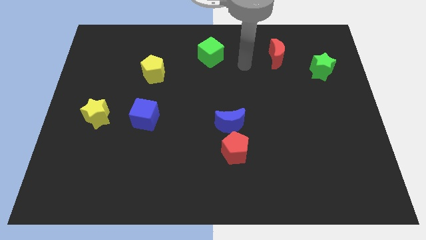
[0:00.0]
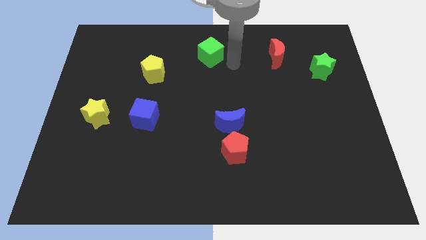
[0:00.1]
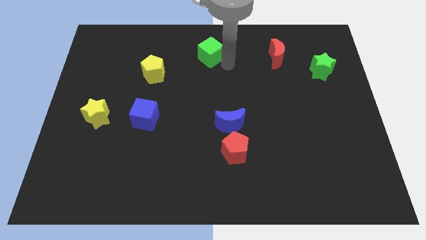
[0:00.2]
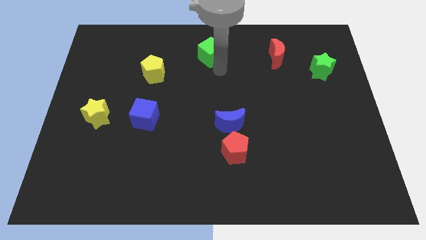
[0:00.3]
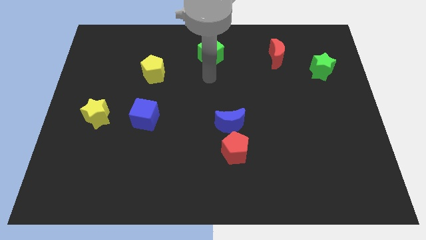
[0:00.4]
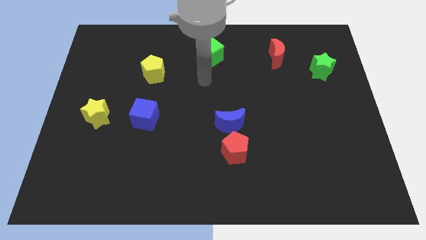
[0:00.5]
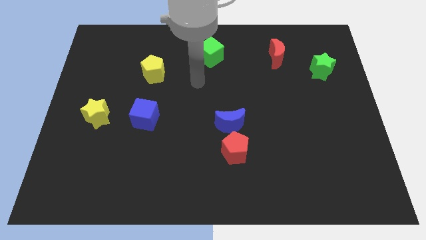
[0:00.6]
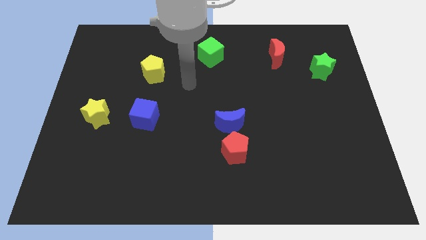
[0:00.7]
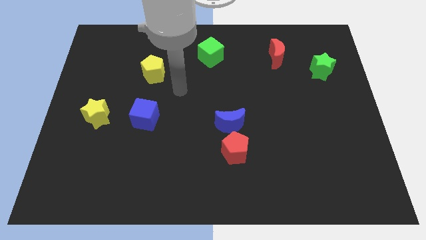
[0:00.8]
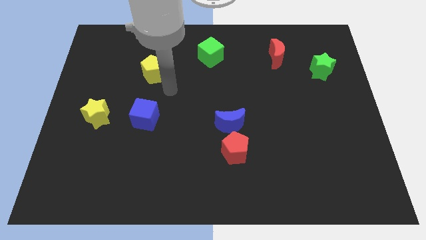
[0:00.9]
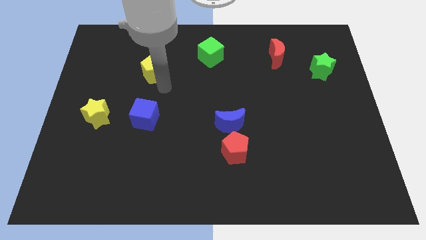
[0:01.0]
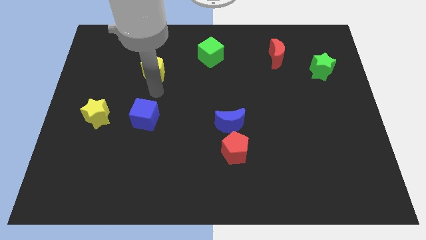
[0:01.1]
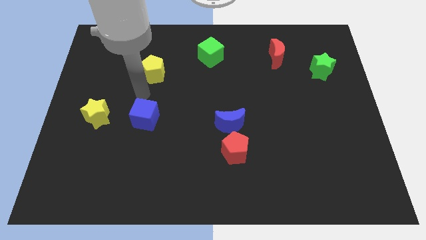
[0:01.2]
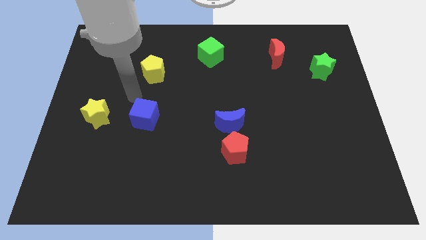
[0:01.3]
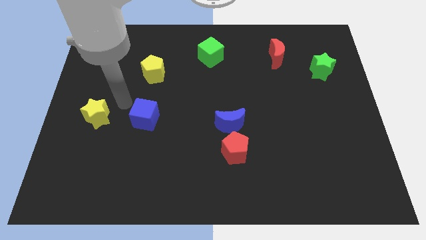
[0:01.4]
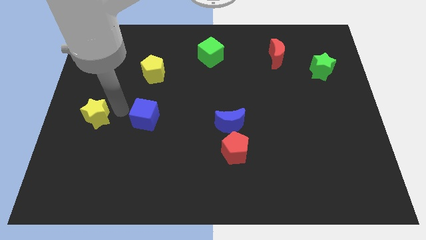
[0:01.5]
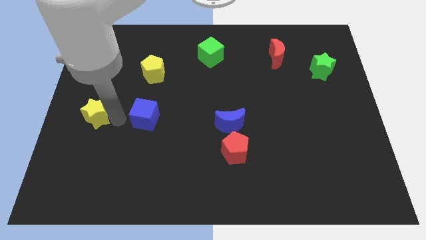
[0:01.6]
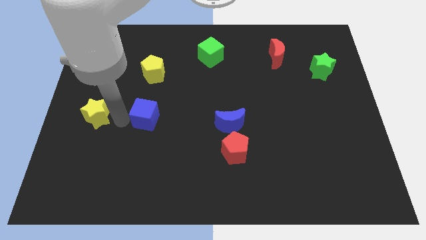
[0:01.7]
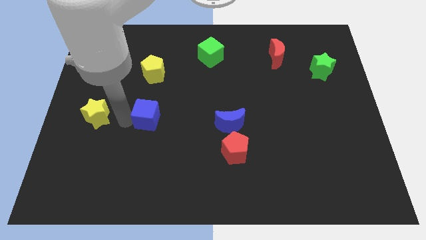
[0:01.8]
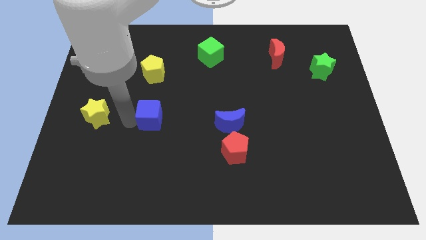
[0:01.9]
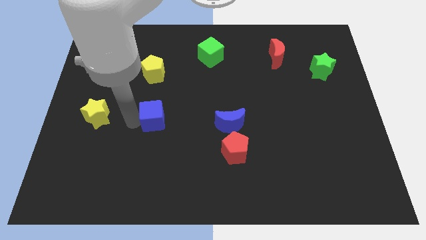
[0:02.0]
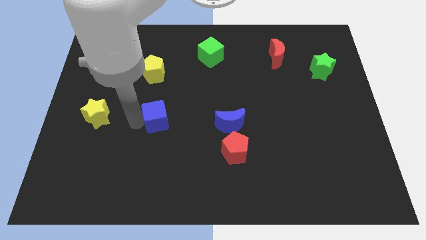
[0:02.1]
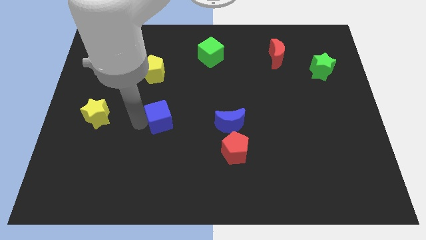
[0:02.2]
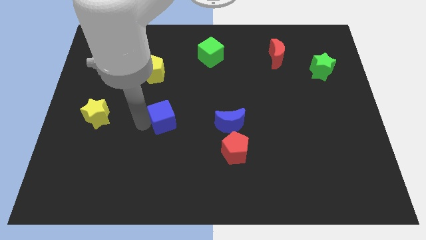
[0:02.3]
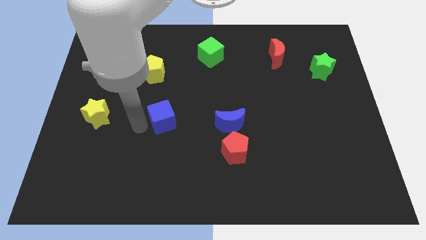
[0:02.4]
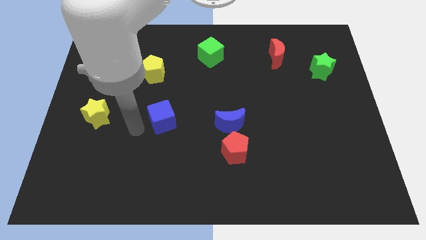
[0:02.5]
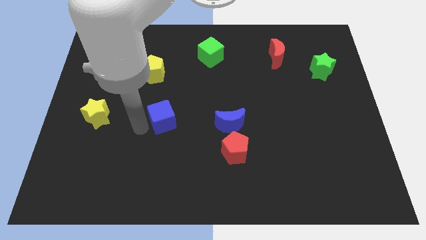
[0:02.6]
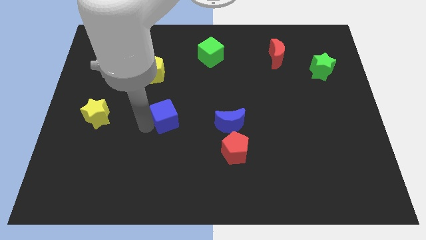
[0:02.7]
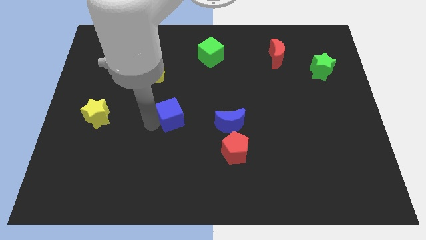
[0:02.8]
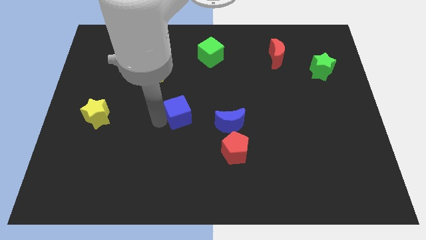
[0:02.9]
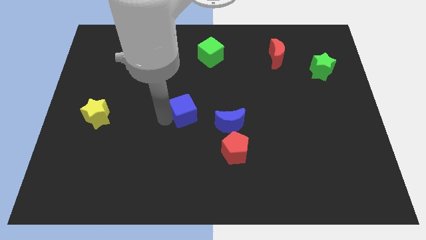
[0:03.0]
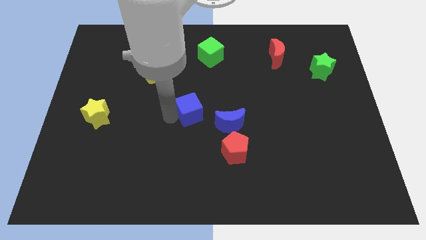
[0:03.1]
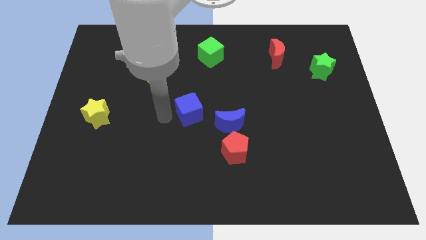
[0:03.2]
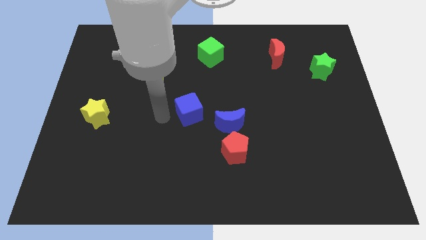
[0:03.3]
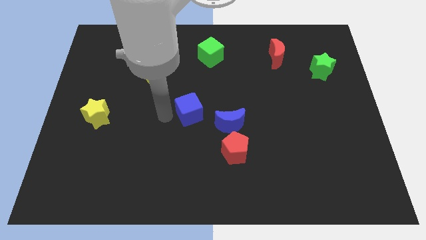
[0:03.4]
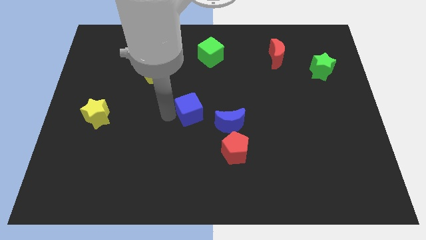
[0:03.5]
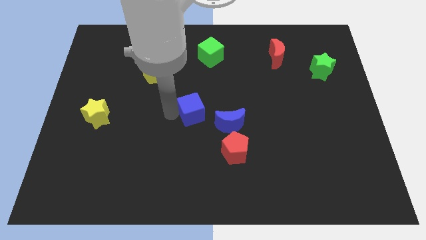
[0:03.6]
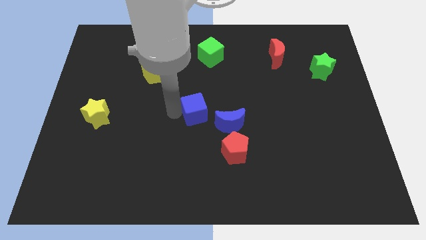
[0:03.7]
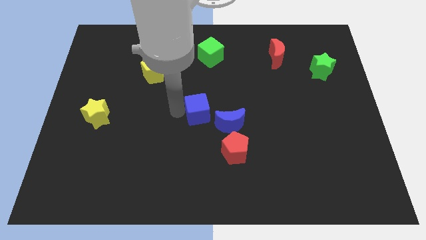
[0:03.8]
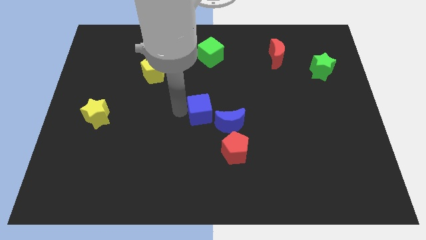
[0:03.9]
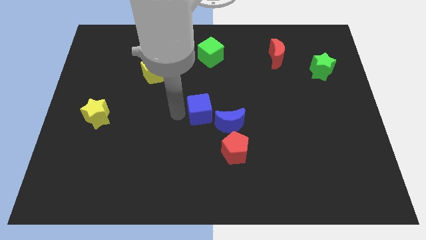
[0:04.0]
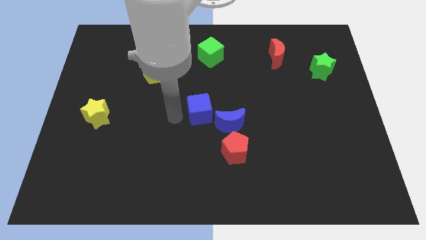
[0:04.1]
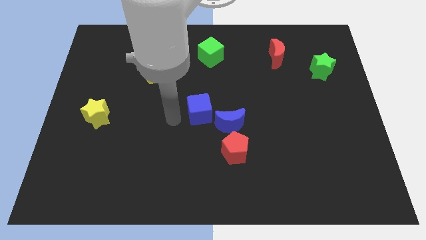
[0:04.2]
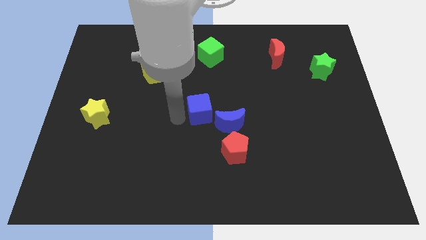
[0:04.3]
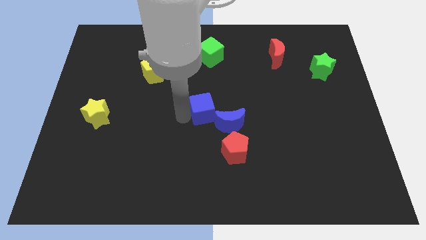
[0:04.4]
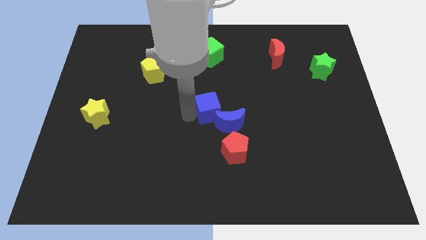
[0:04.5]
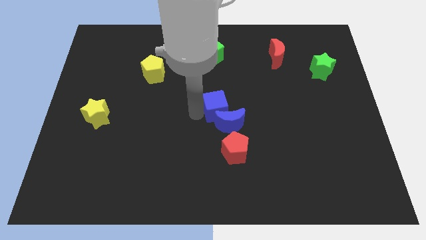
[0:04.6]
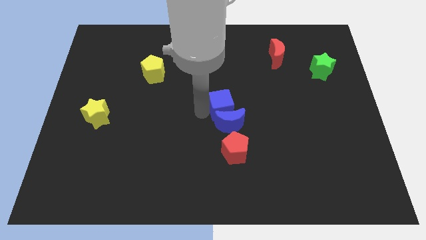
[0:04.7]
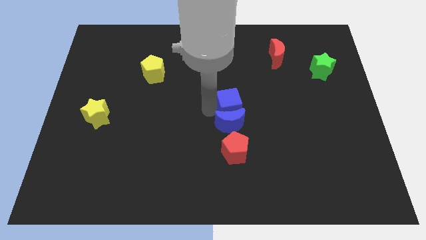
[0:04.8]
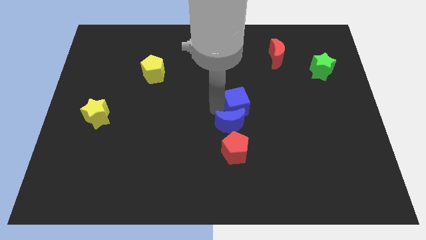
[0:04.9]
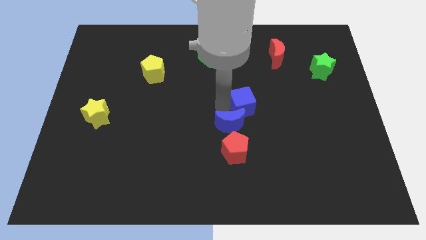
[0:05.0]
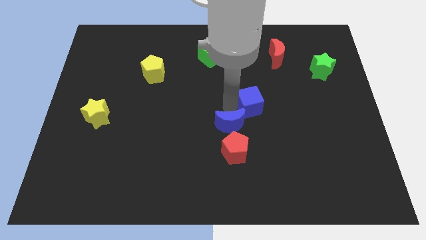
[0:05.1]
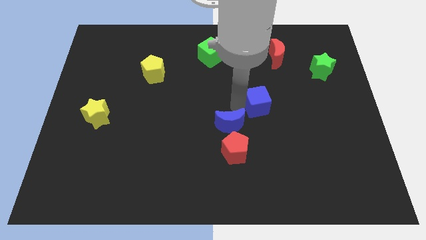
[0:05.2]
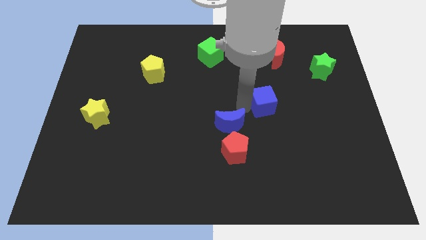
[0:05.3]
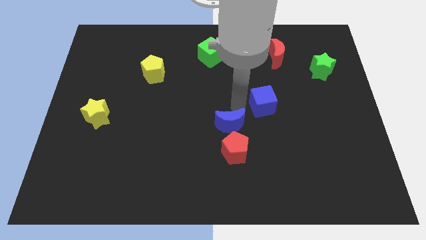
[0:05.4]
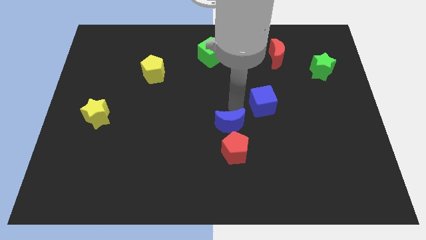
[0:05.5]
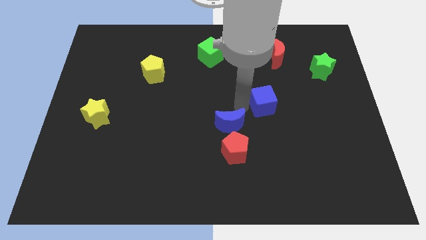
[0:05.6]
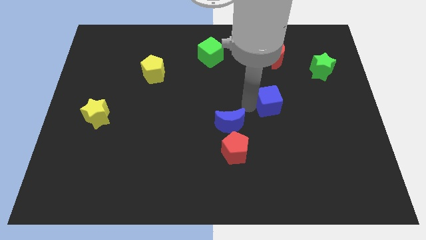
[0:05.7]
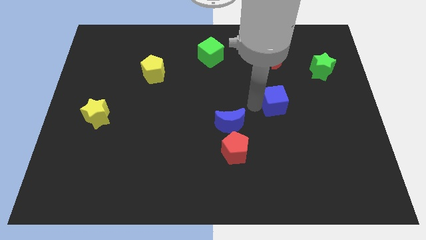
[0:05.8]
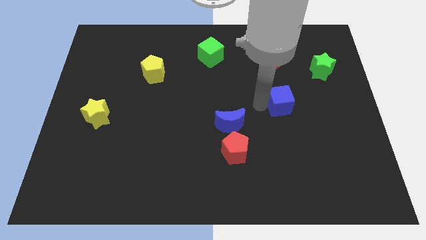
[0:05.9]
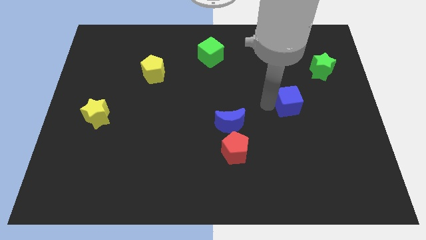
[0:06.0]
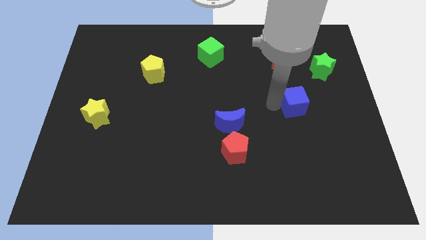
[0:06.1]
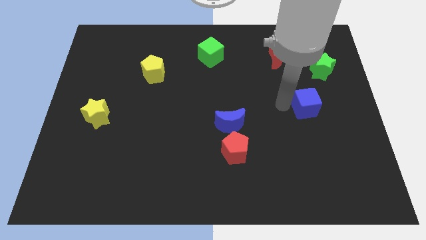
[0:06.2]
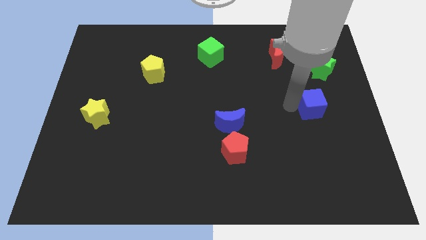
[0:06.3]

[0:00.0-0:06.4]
move the blue cube to the bottom side of the green star
